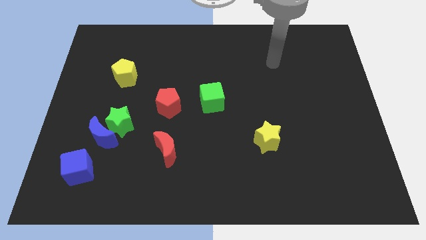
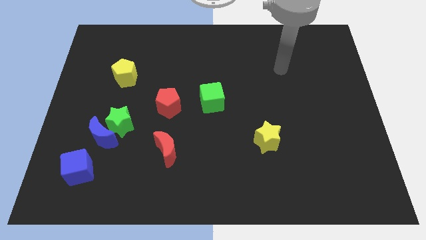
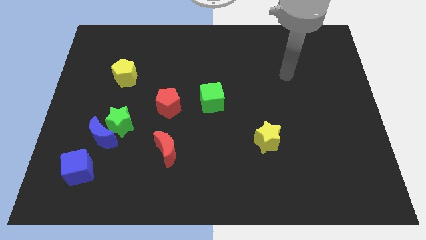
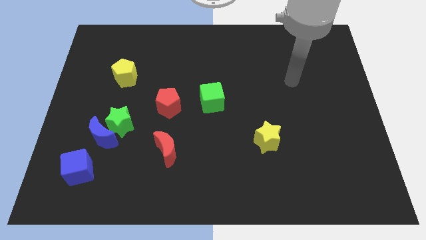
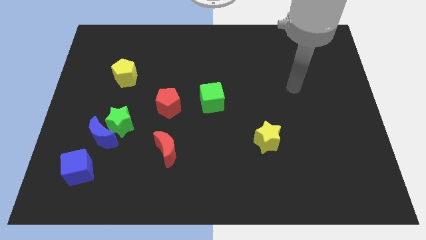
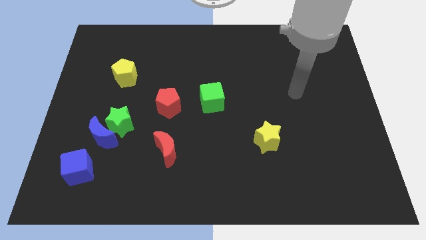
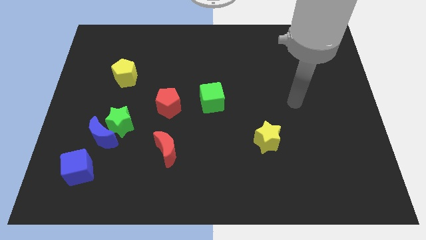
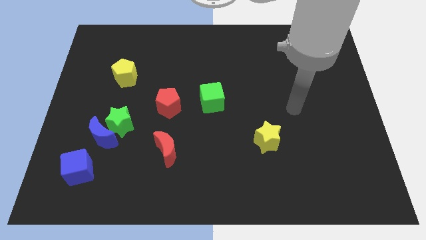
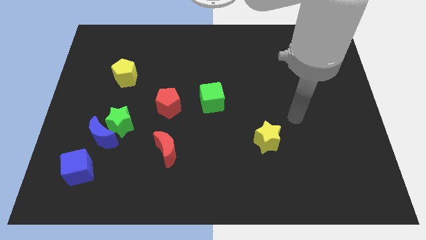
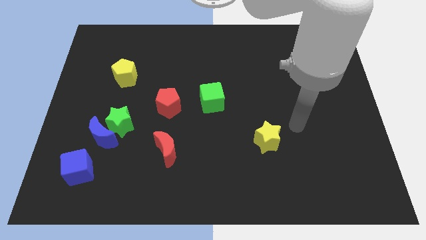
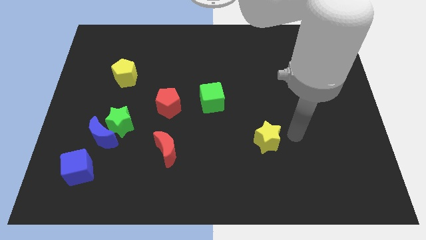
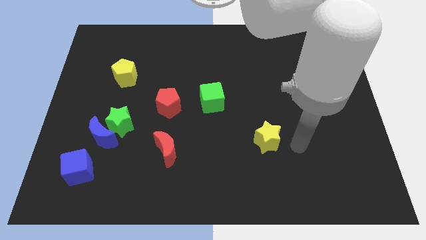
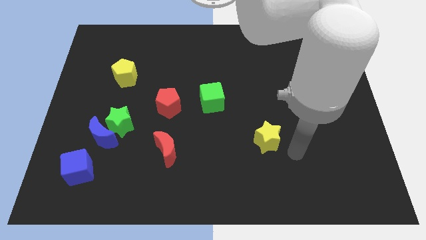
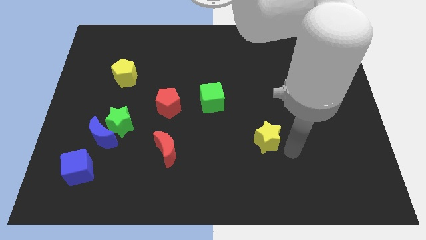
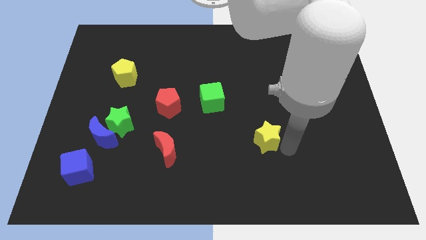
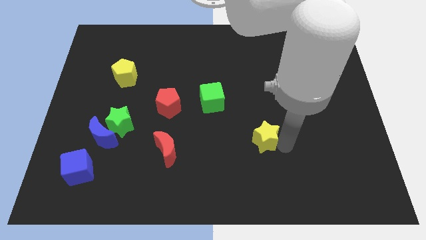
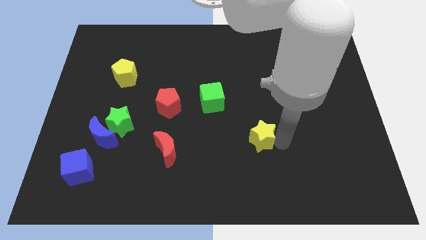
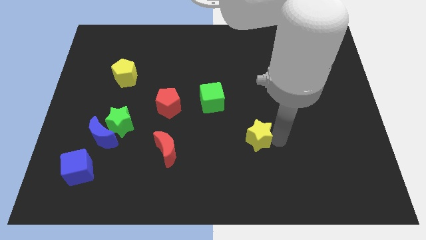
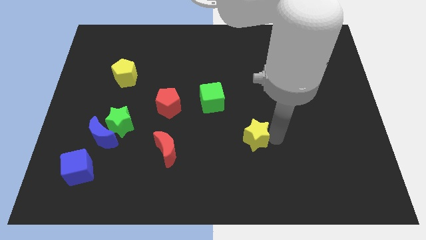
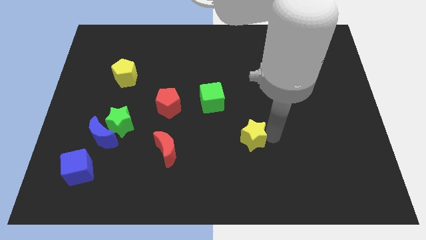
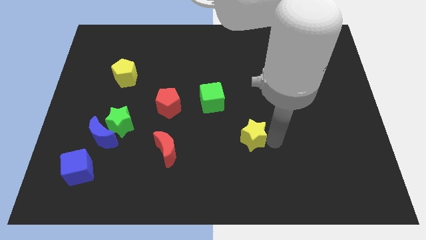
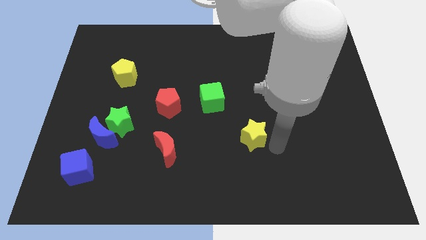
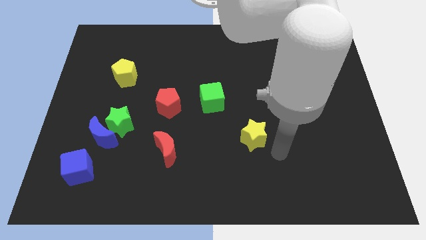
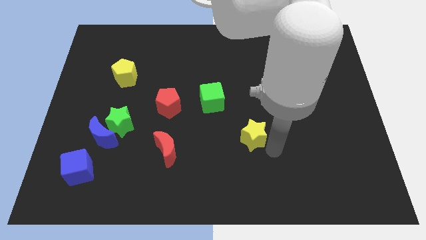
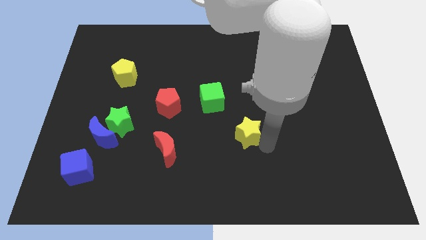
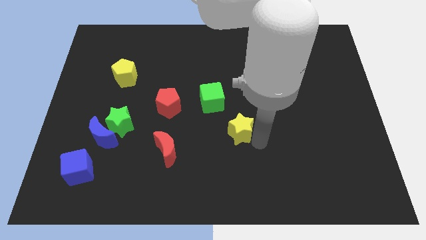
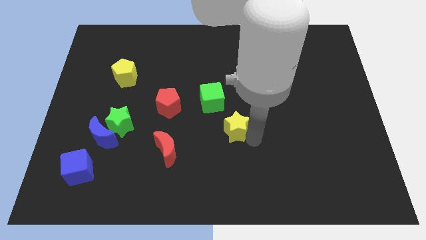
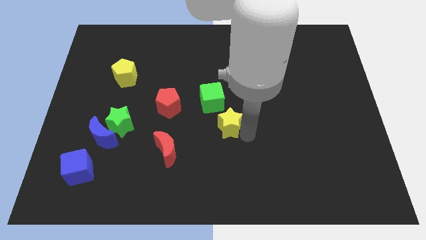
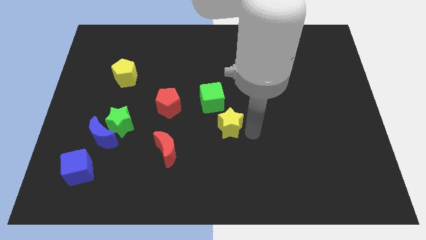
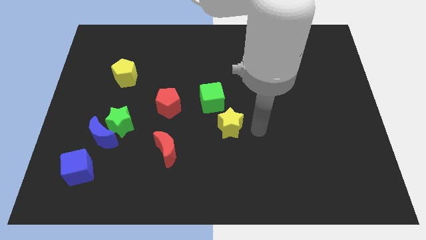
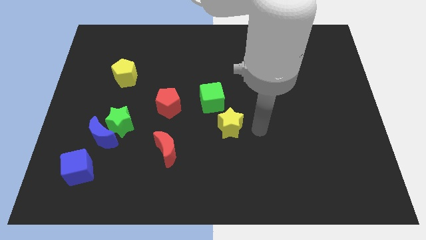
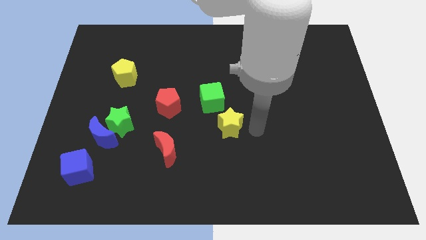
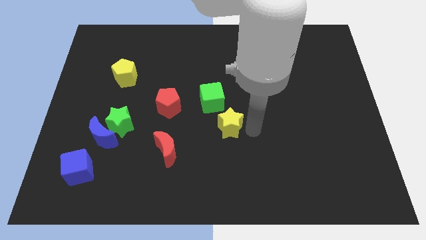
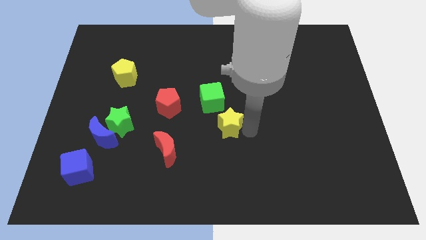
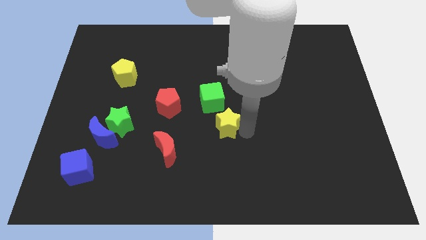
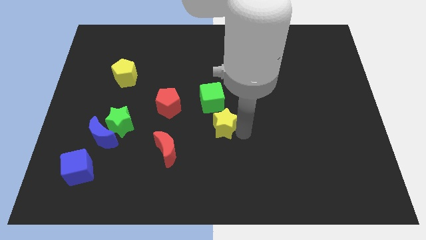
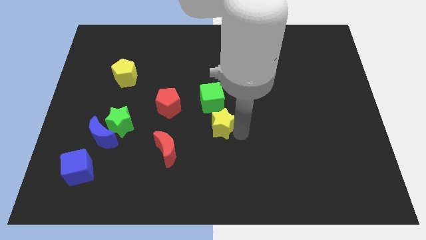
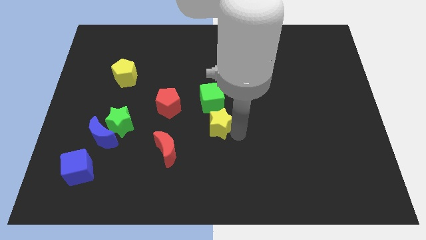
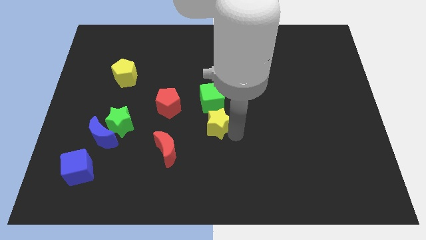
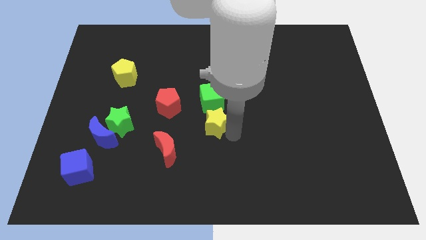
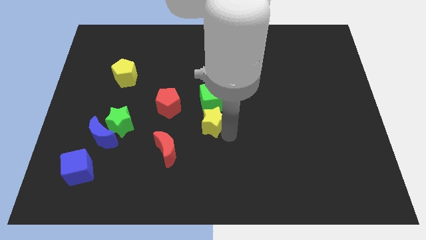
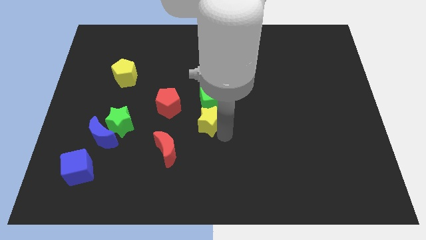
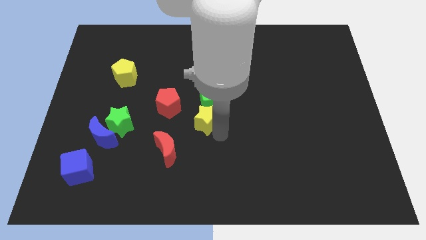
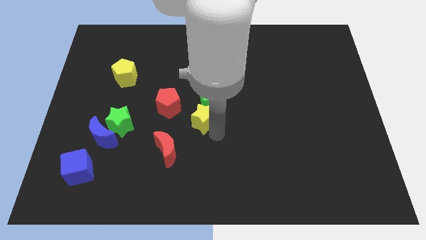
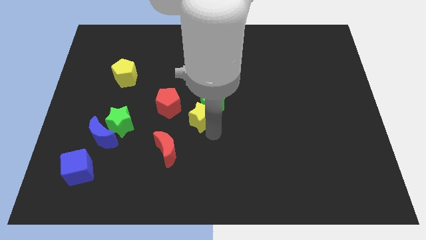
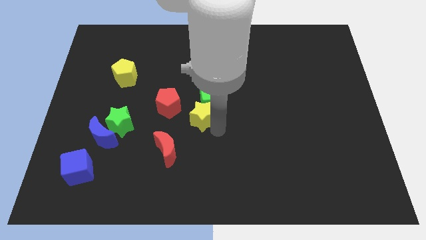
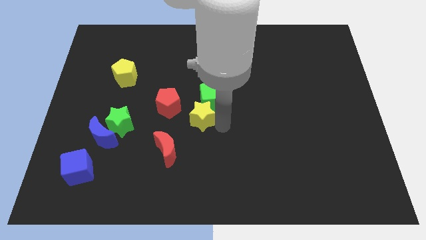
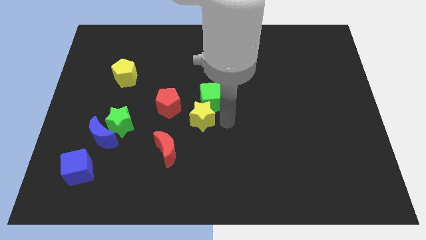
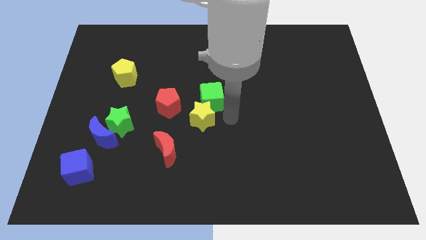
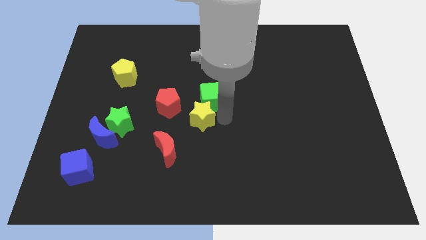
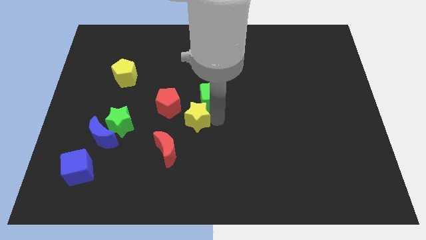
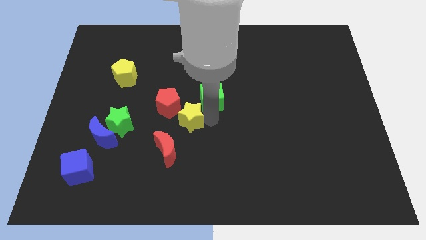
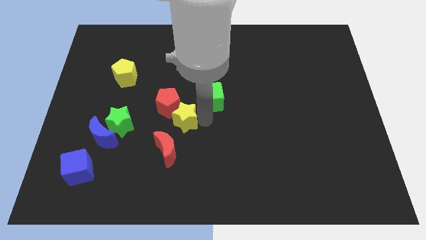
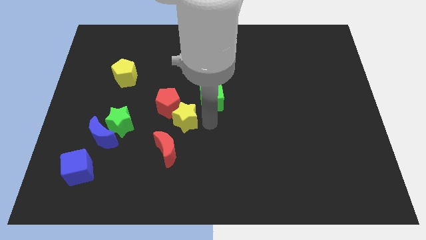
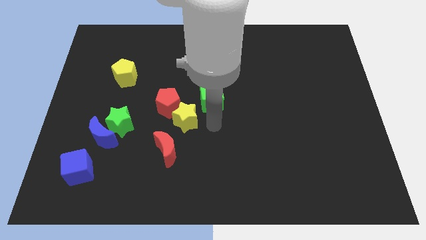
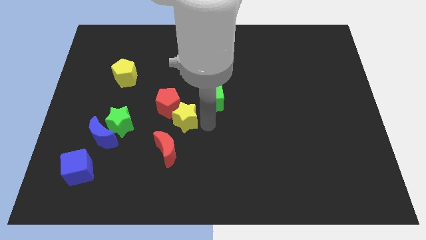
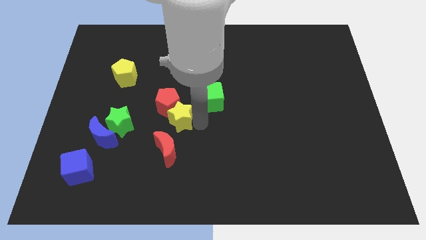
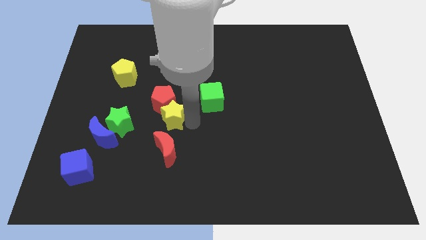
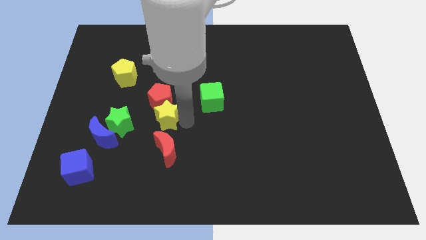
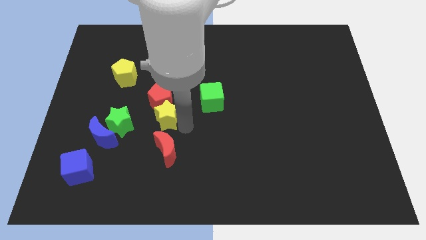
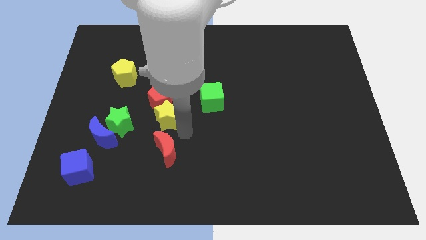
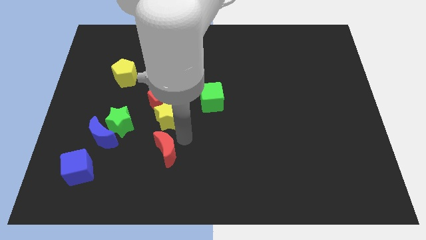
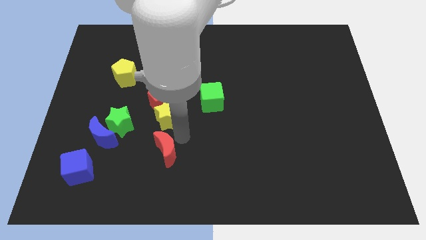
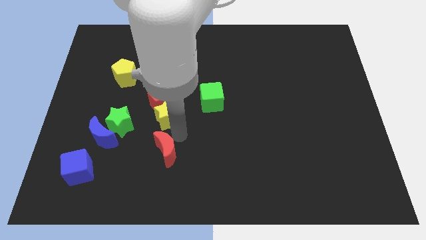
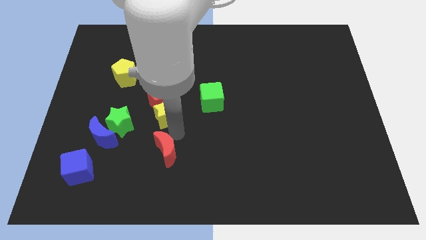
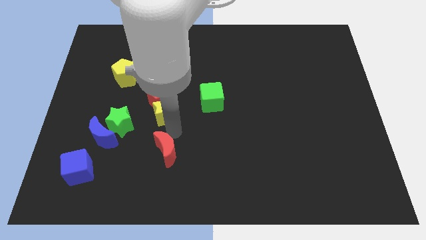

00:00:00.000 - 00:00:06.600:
put the yellow star to the left of the green cube
